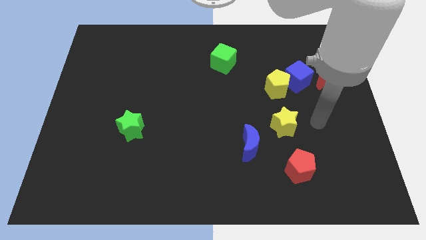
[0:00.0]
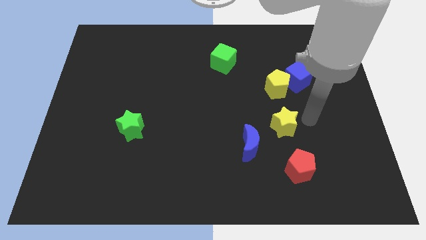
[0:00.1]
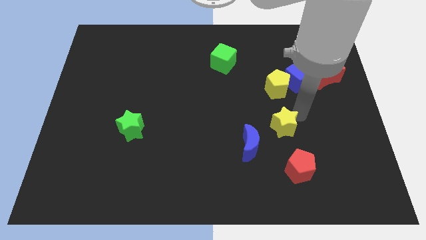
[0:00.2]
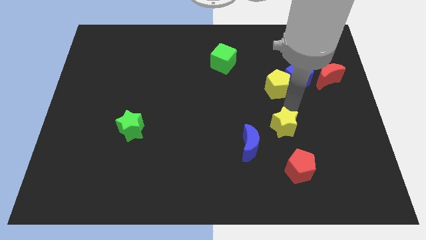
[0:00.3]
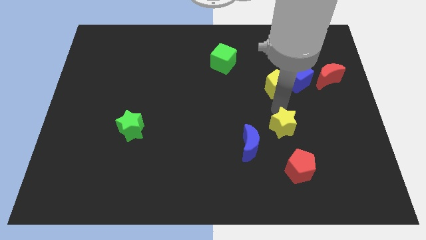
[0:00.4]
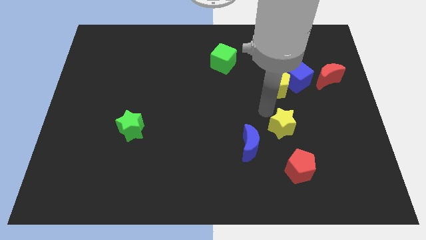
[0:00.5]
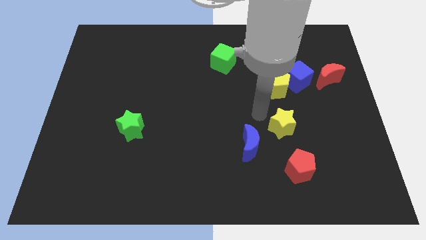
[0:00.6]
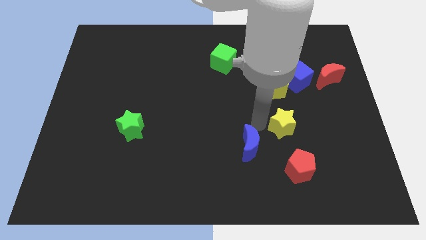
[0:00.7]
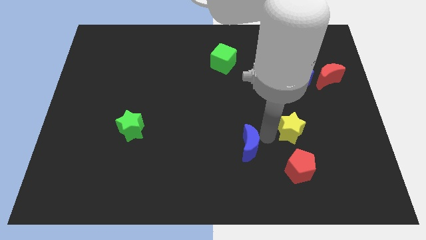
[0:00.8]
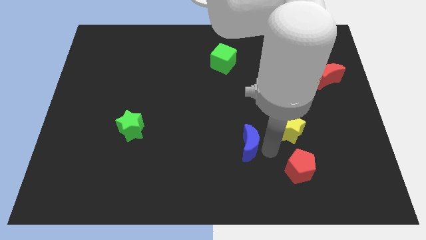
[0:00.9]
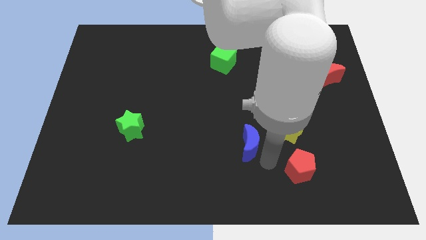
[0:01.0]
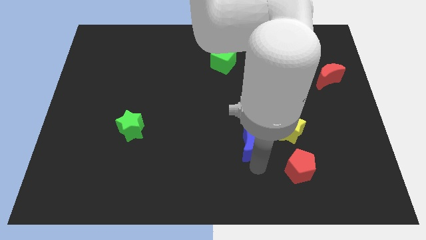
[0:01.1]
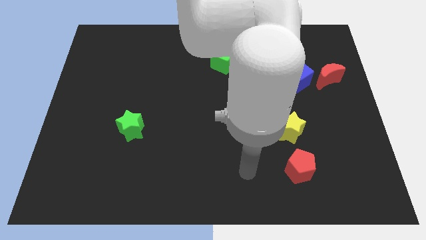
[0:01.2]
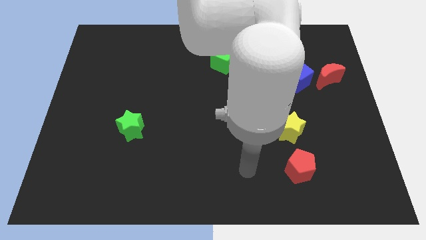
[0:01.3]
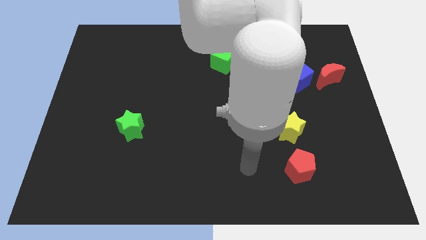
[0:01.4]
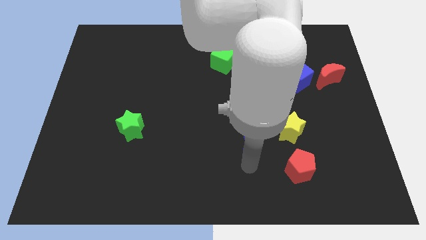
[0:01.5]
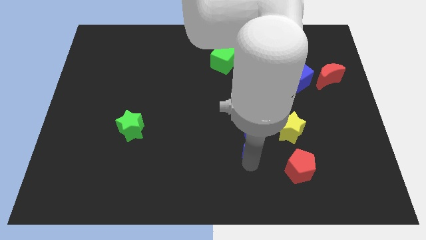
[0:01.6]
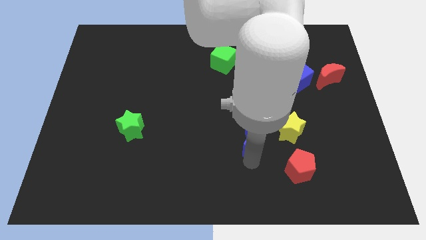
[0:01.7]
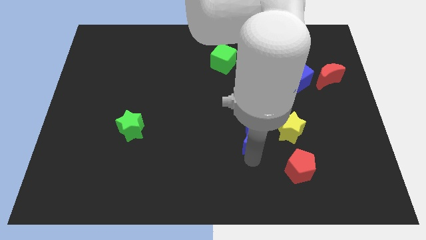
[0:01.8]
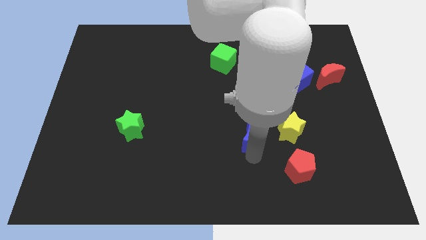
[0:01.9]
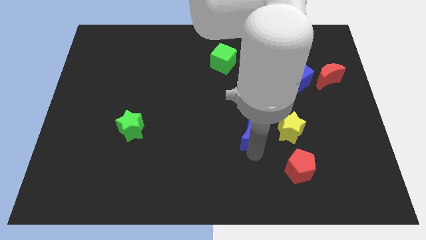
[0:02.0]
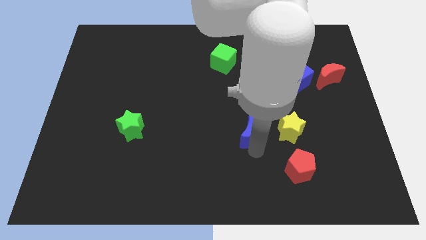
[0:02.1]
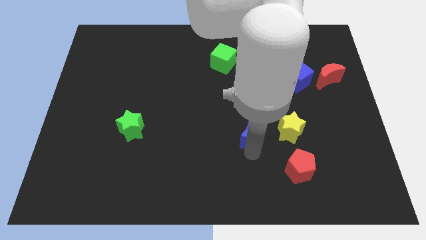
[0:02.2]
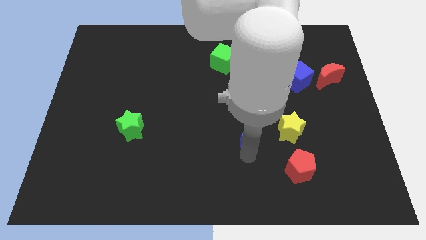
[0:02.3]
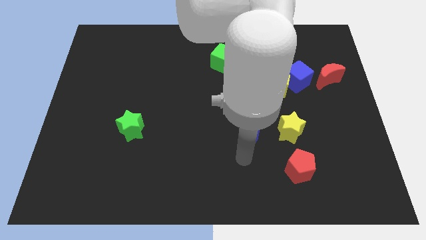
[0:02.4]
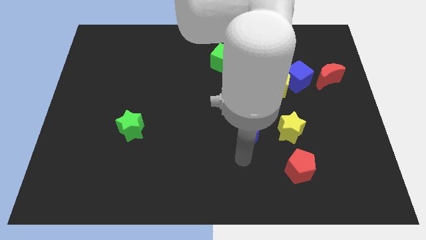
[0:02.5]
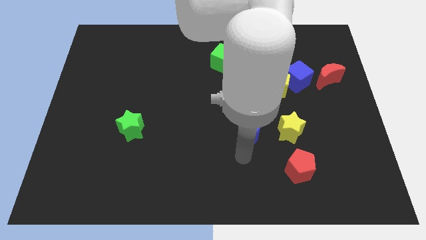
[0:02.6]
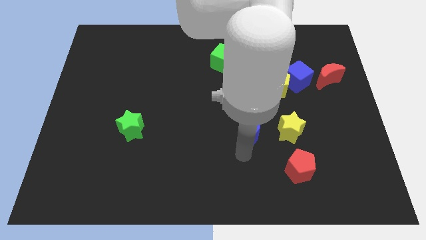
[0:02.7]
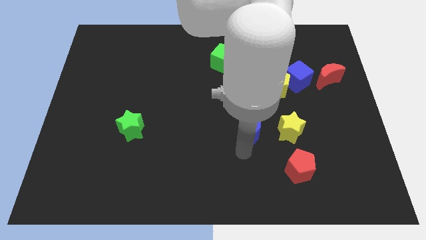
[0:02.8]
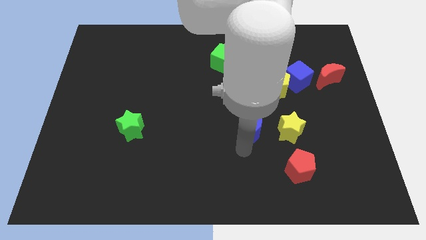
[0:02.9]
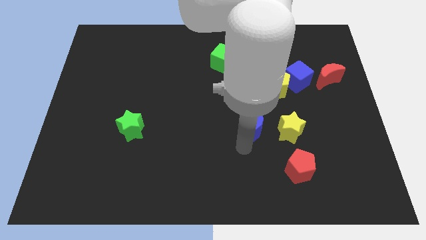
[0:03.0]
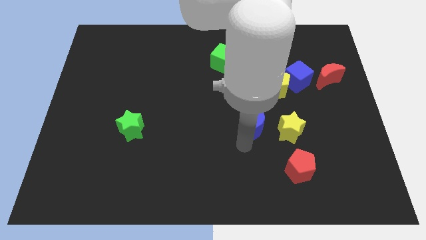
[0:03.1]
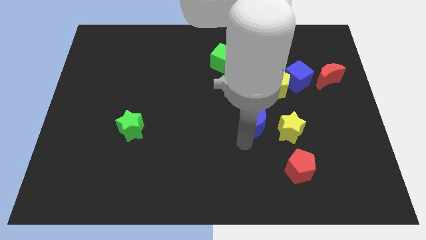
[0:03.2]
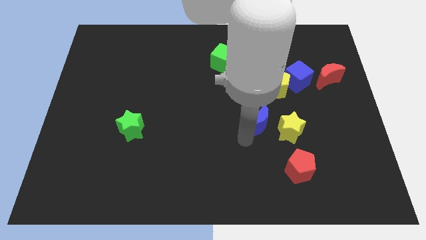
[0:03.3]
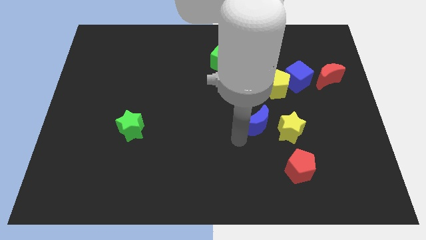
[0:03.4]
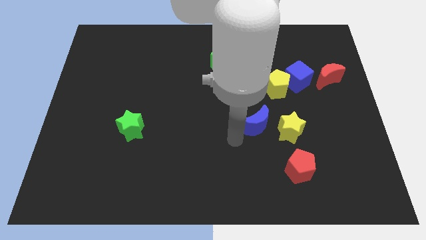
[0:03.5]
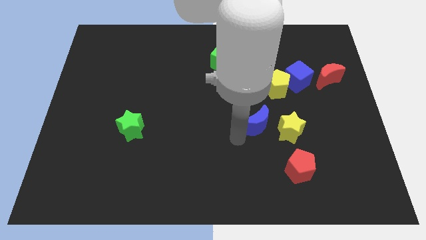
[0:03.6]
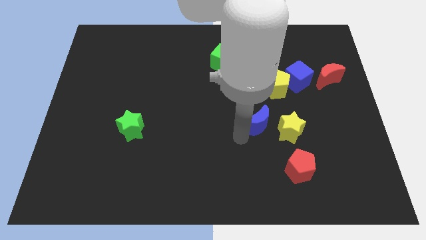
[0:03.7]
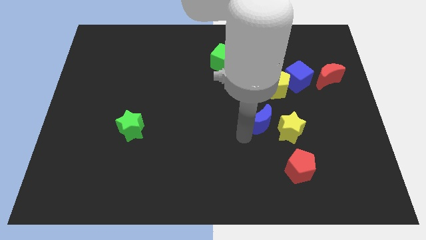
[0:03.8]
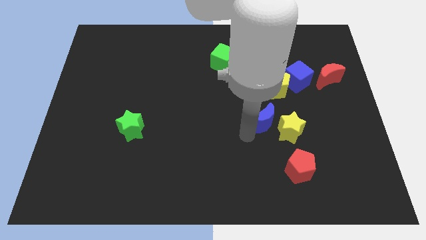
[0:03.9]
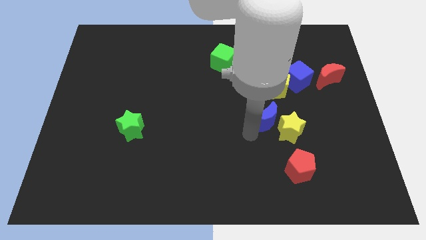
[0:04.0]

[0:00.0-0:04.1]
move the blue moon a little bit diagonally up and to the right

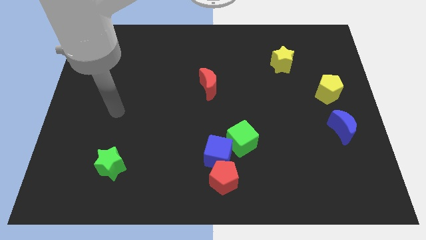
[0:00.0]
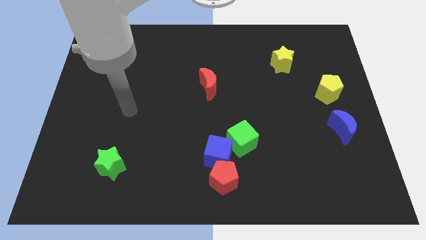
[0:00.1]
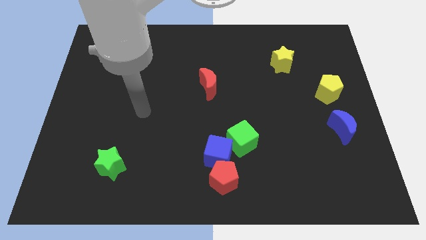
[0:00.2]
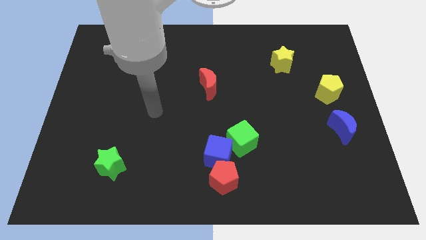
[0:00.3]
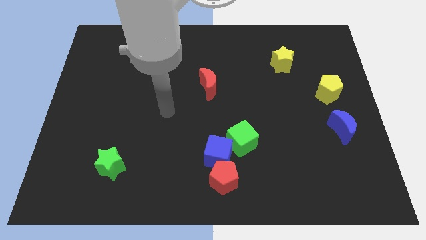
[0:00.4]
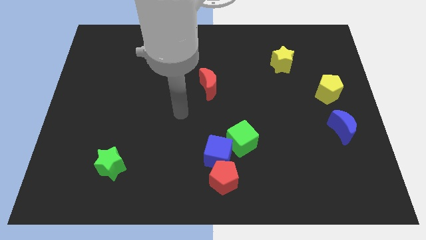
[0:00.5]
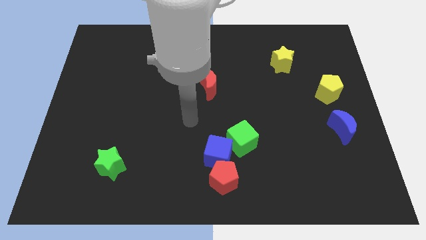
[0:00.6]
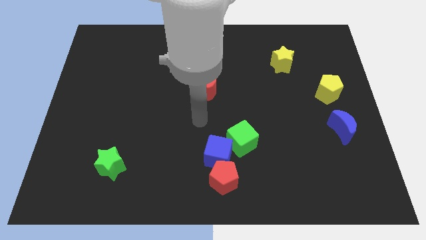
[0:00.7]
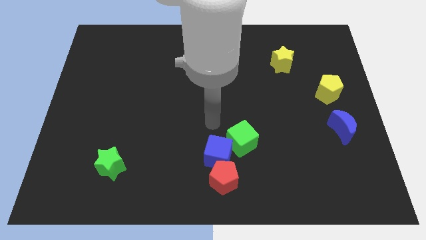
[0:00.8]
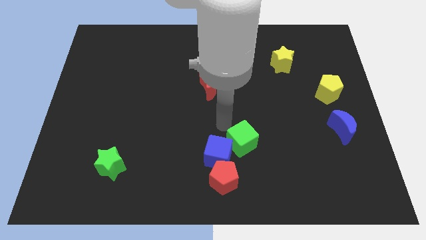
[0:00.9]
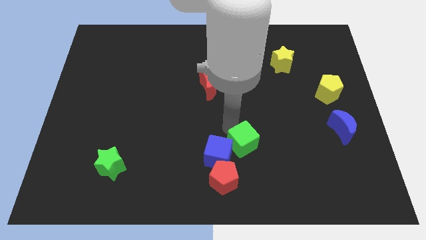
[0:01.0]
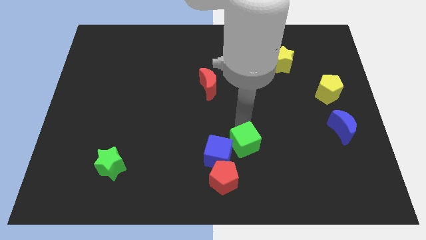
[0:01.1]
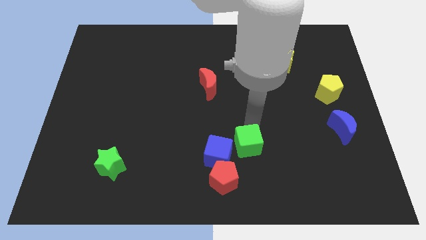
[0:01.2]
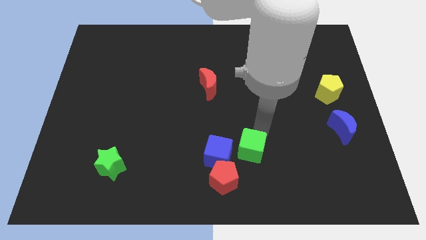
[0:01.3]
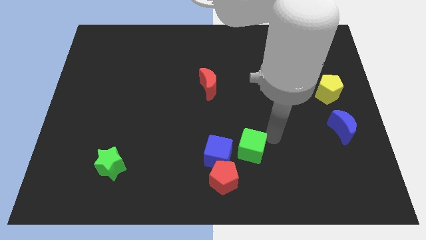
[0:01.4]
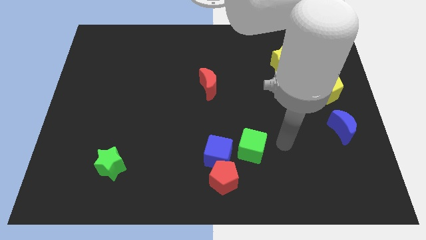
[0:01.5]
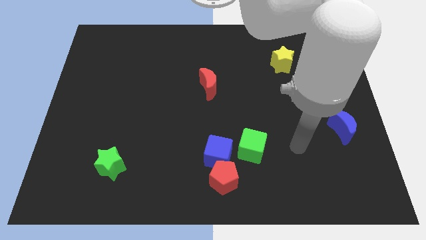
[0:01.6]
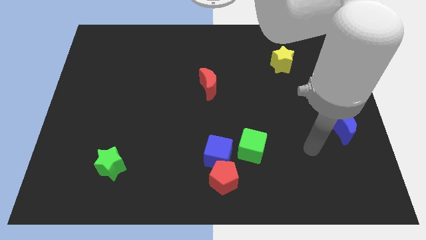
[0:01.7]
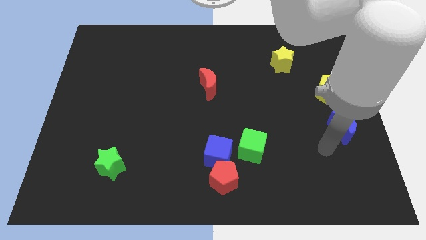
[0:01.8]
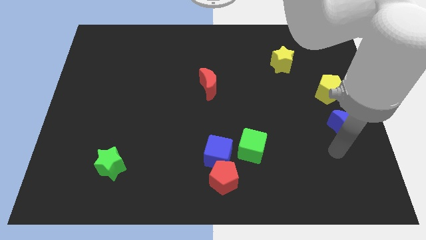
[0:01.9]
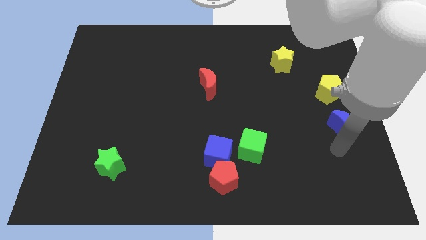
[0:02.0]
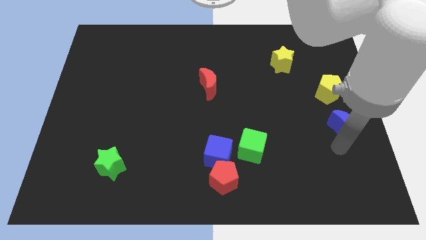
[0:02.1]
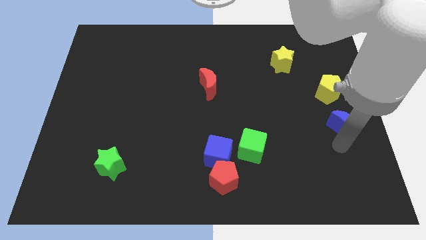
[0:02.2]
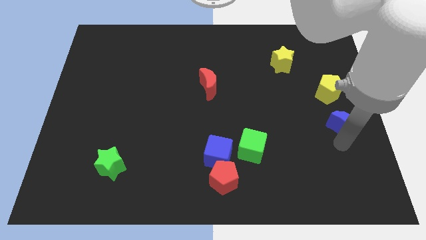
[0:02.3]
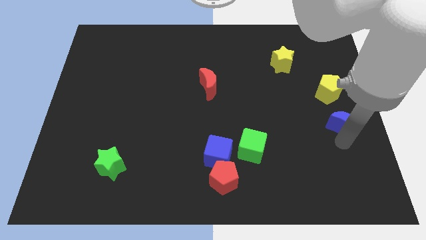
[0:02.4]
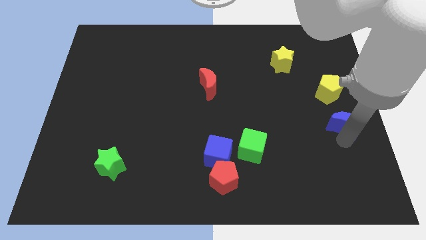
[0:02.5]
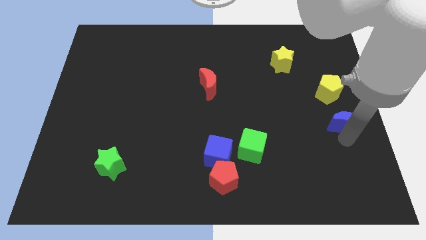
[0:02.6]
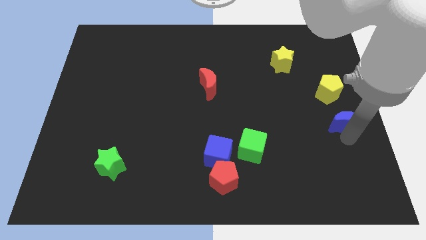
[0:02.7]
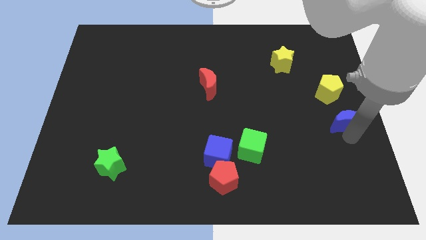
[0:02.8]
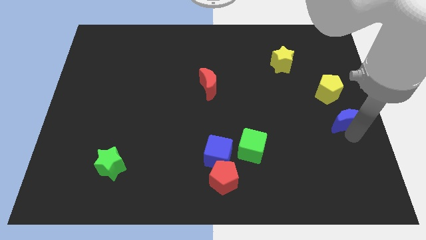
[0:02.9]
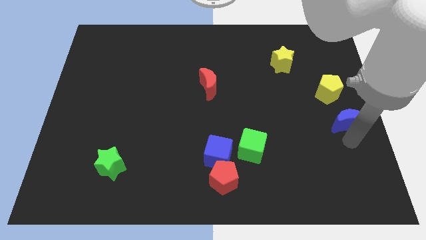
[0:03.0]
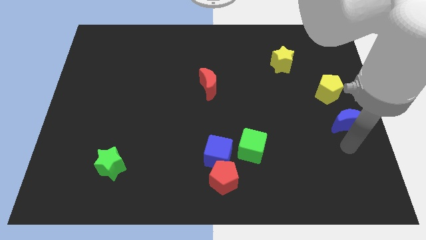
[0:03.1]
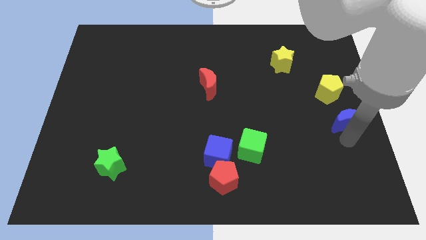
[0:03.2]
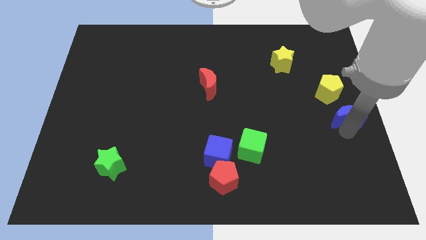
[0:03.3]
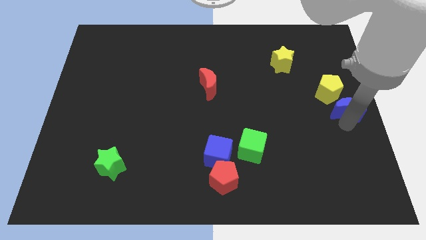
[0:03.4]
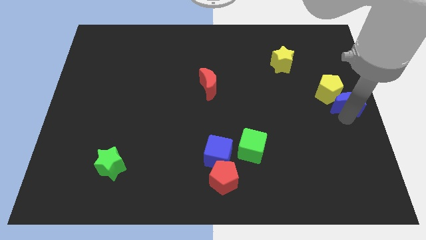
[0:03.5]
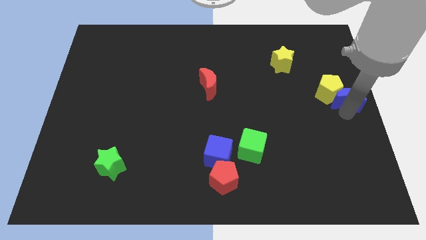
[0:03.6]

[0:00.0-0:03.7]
push the blue moon slightly up
